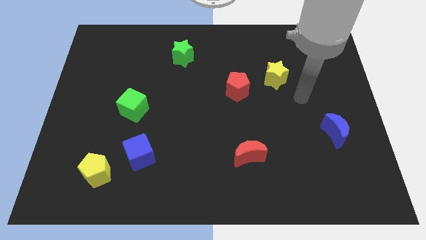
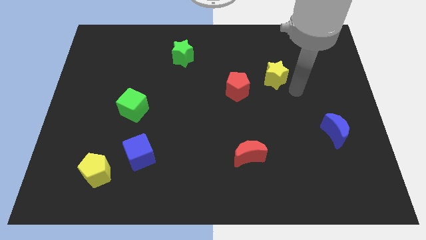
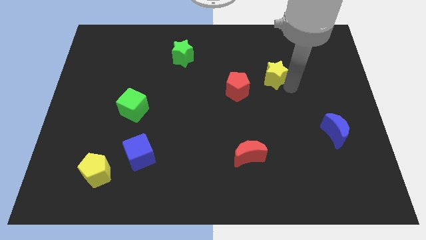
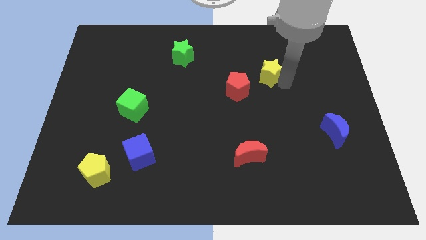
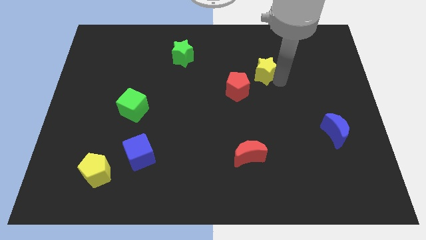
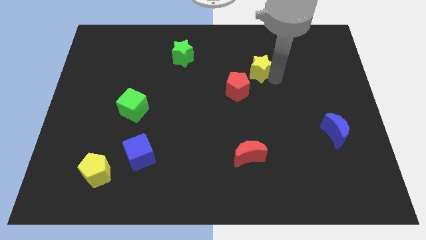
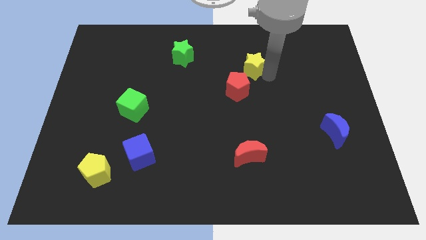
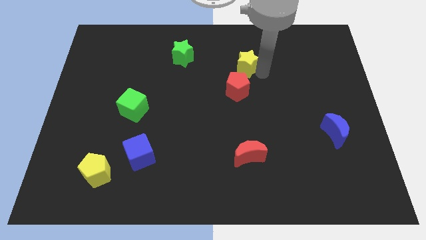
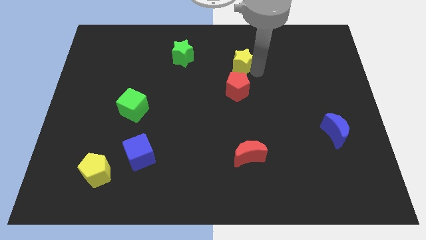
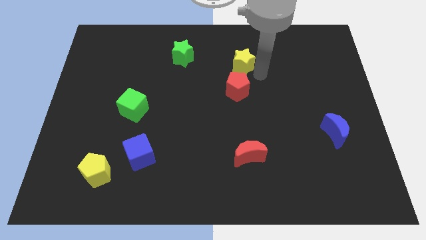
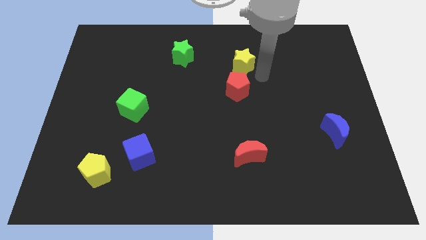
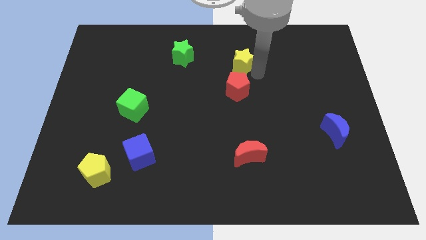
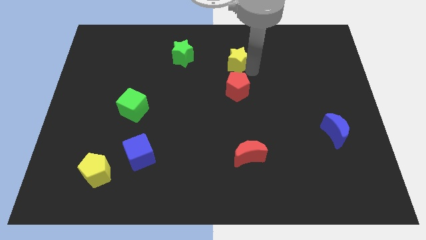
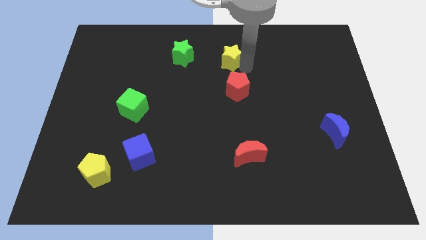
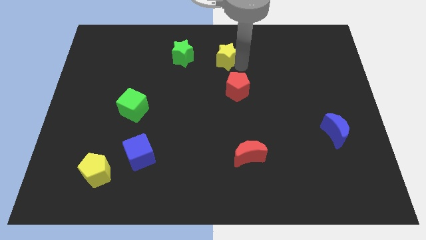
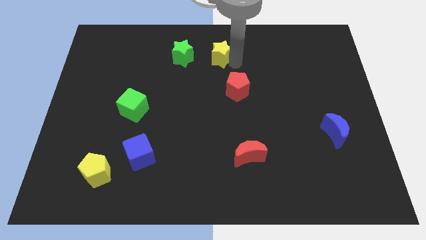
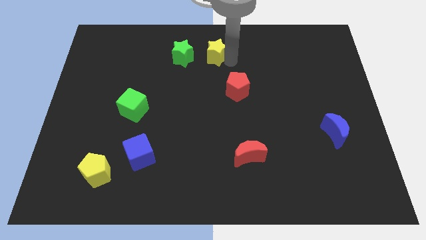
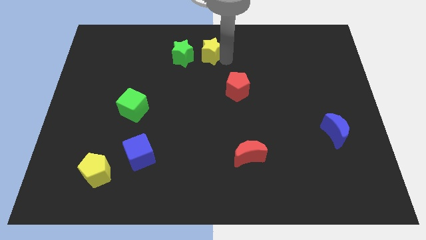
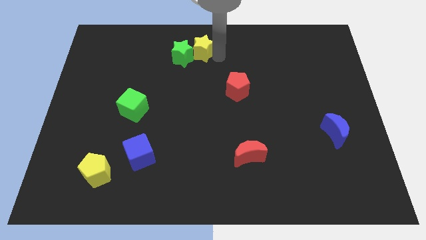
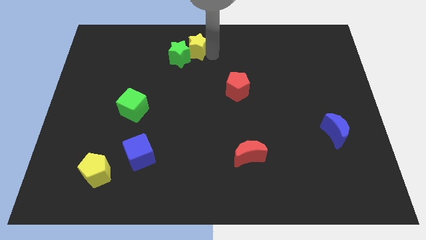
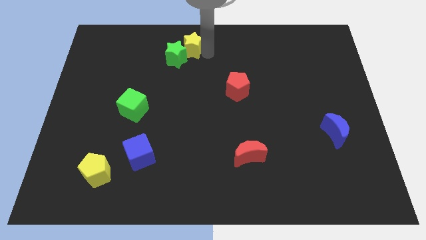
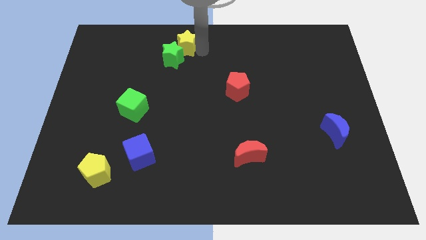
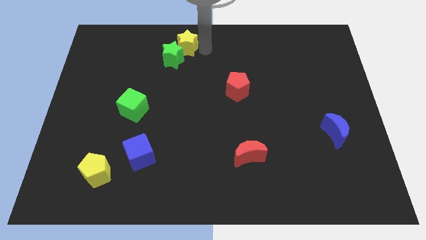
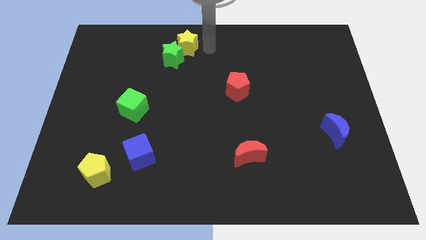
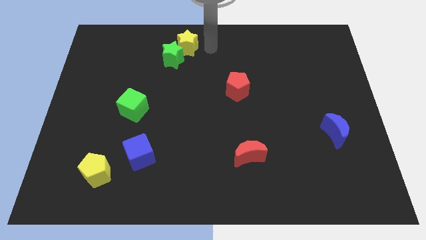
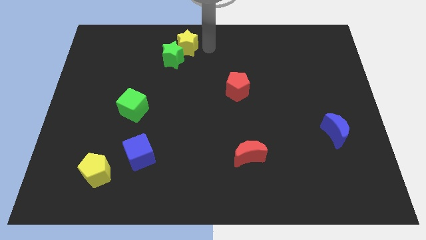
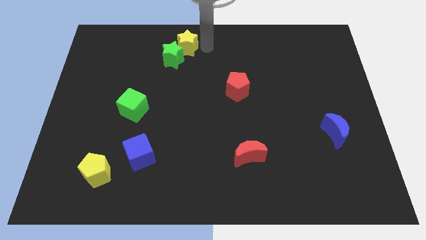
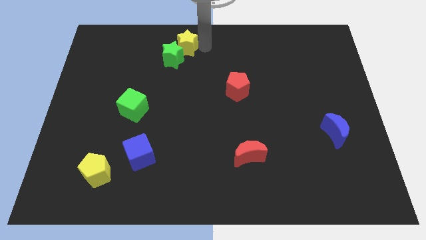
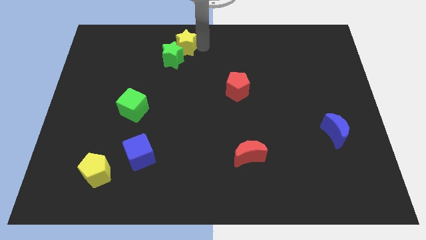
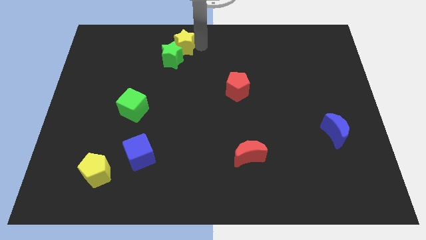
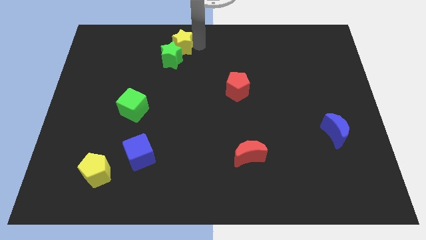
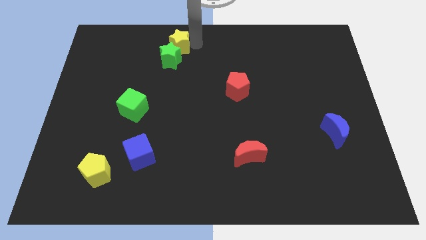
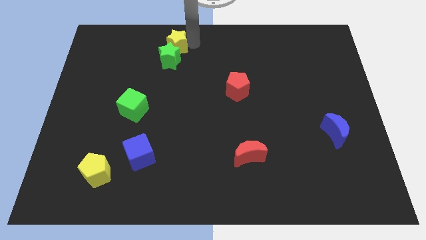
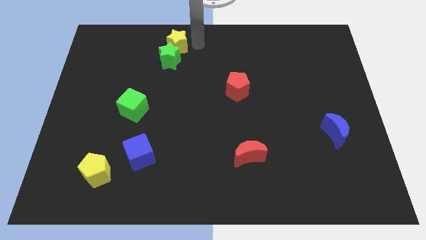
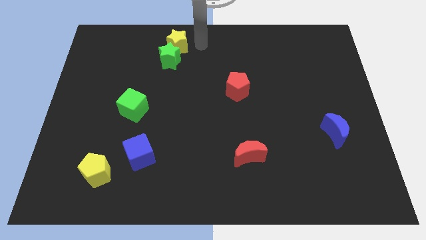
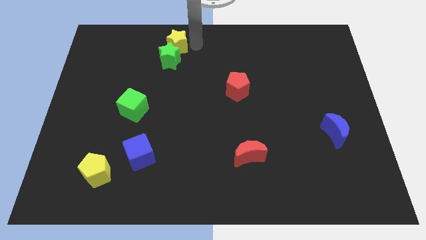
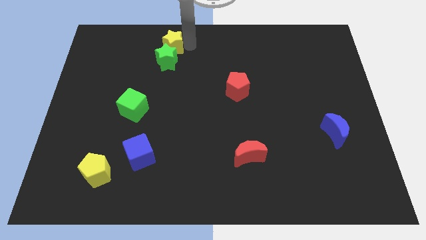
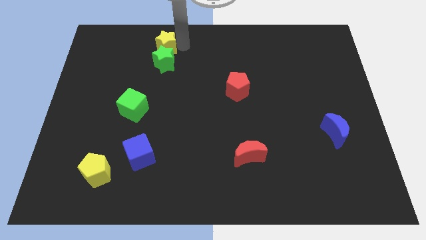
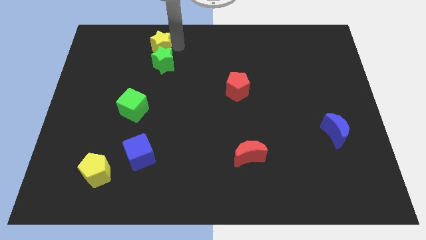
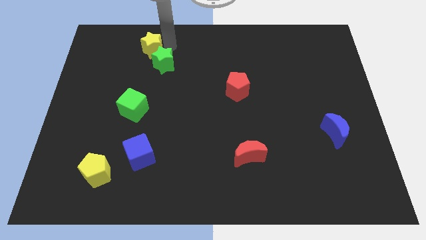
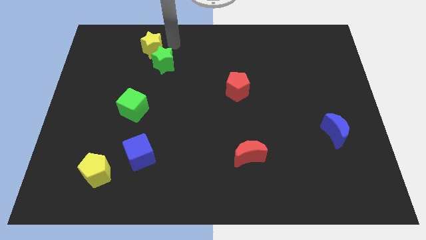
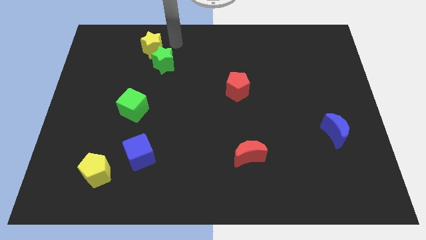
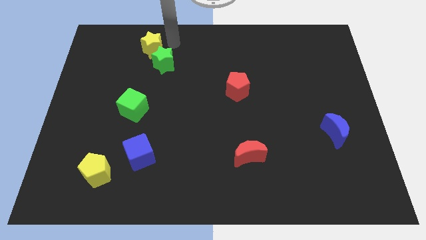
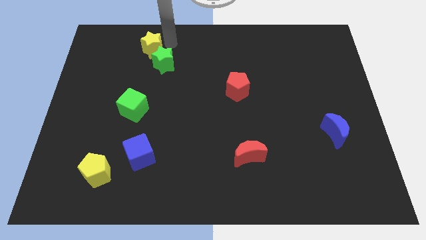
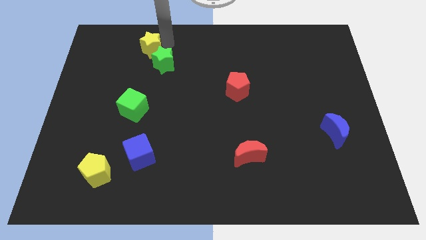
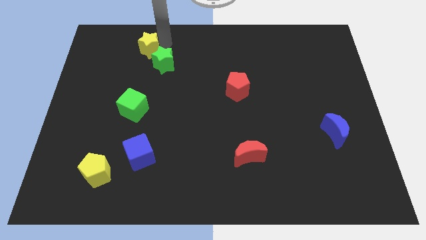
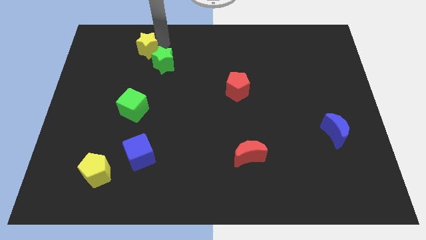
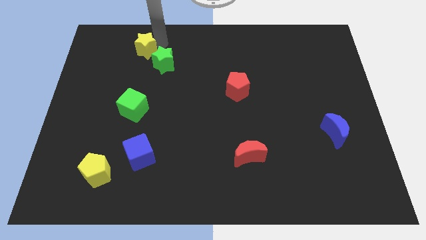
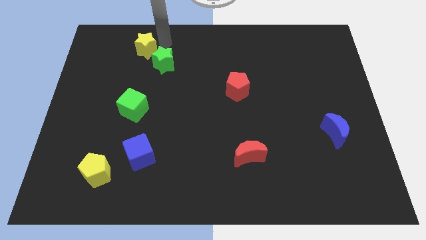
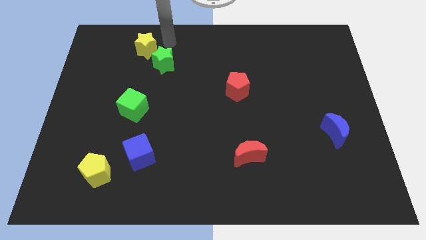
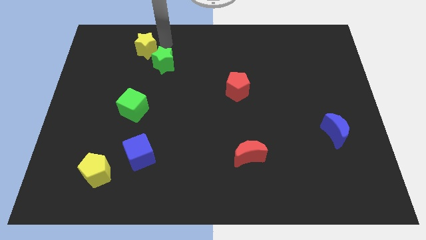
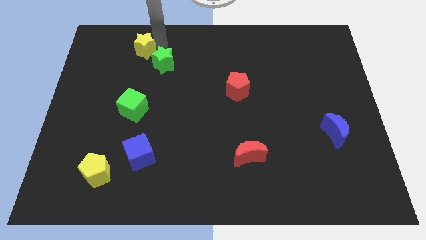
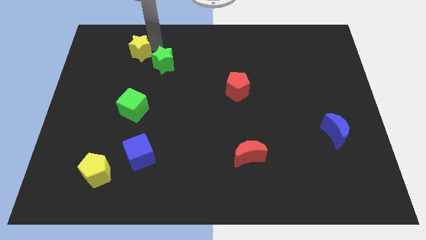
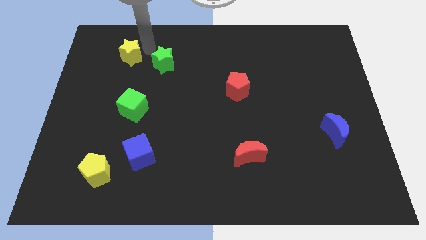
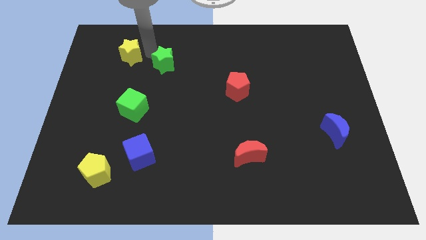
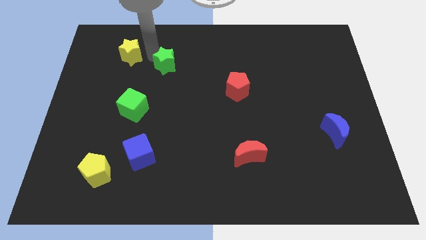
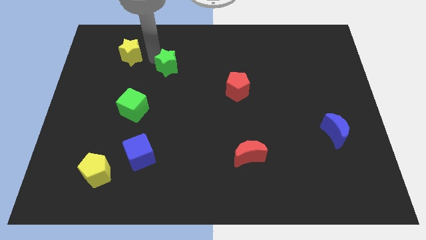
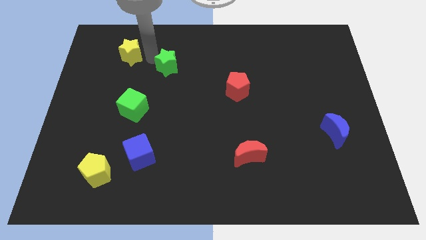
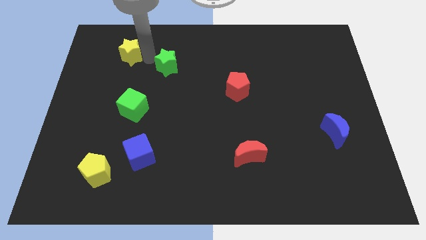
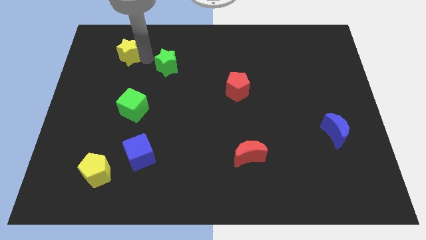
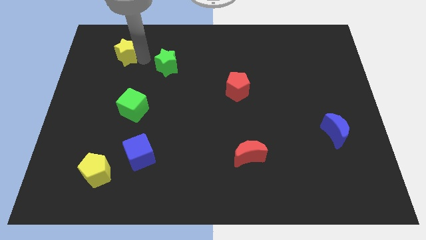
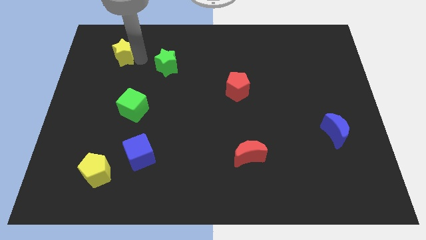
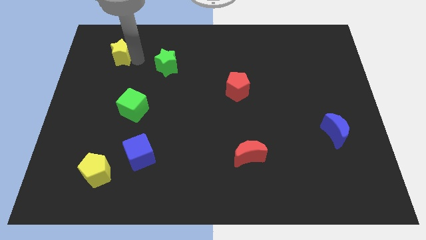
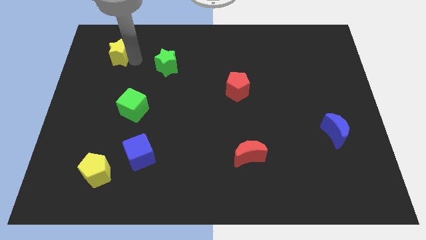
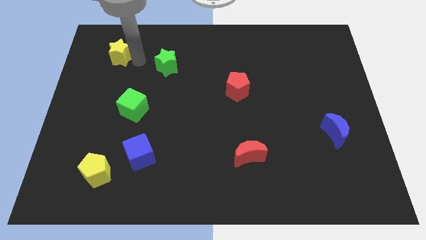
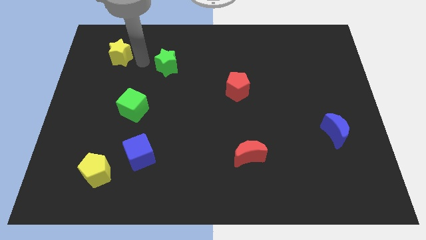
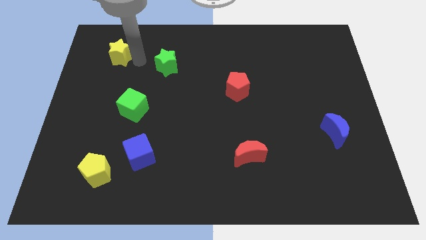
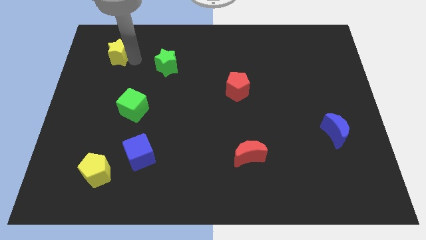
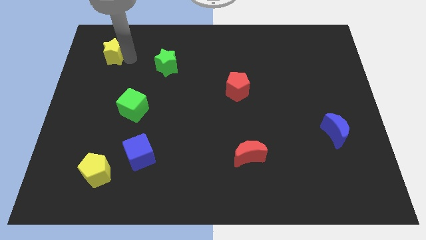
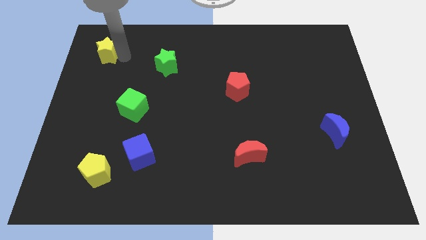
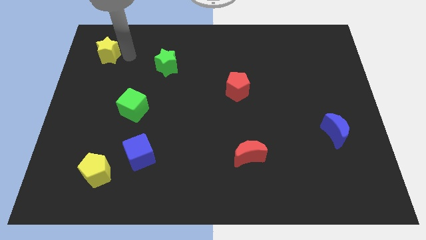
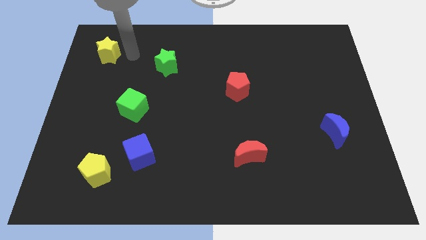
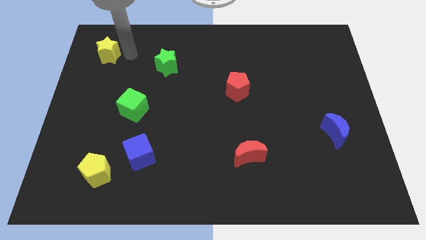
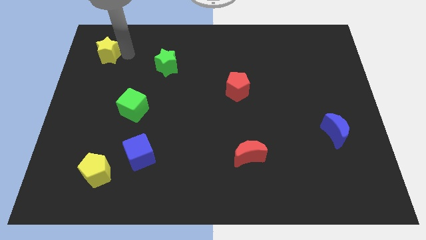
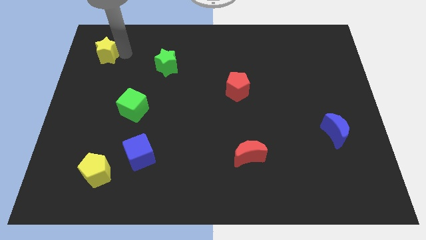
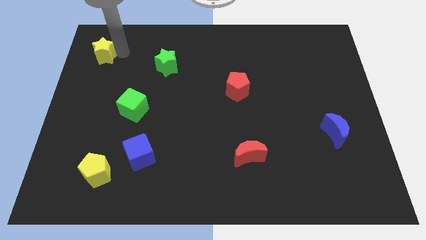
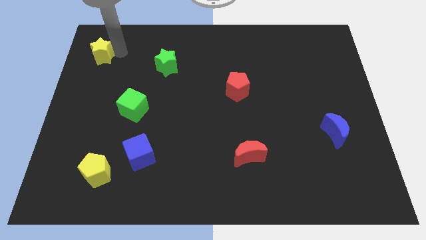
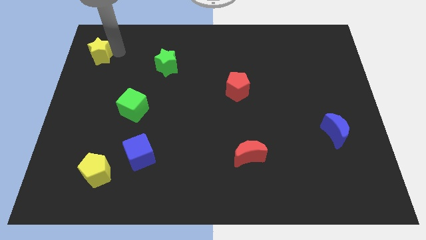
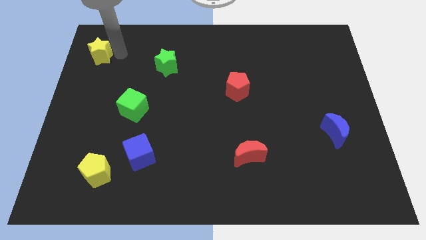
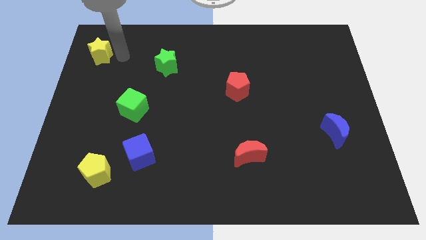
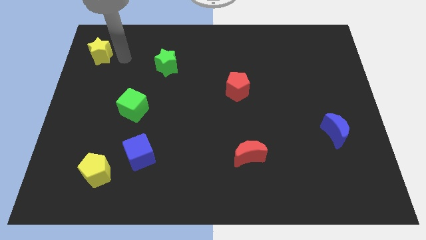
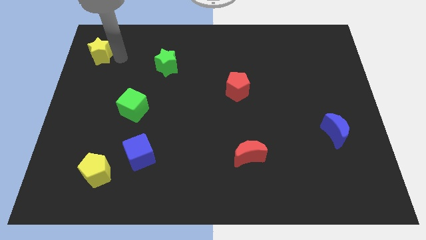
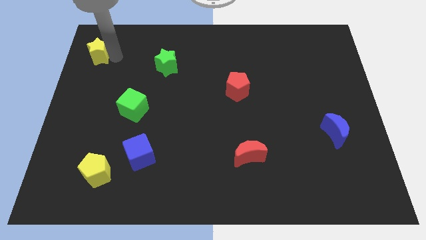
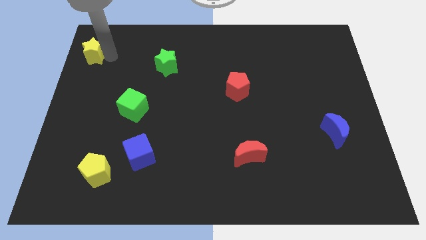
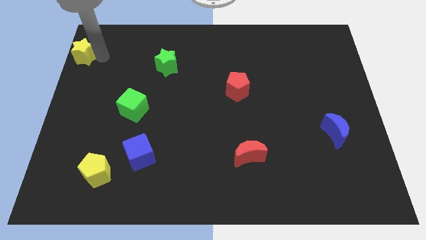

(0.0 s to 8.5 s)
put the yellow star to the top left corner
